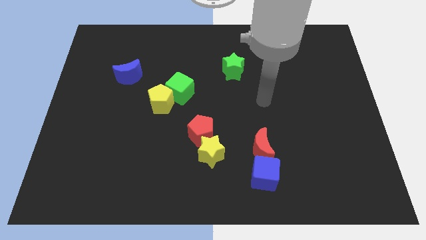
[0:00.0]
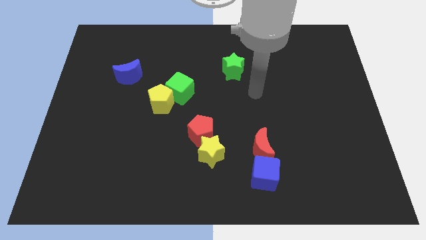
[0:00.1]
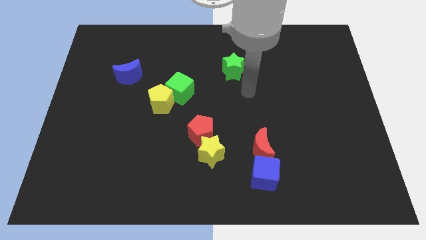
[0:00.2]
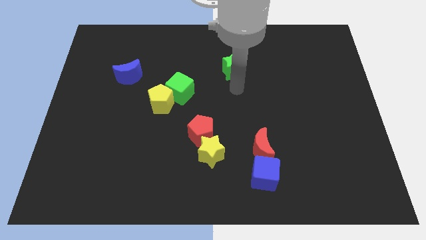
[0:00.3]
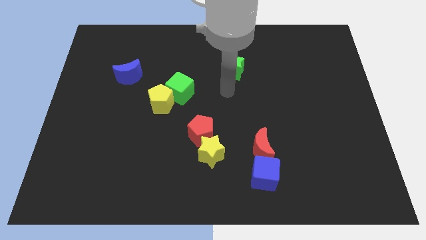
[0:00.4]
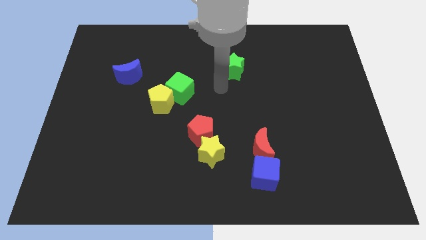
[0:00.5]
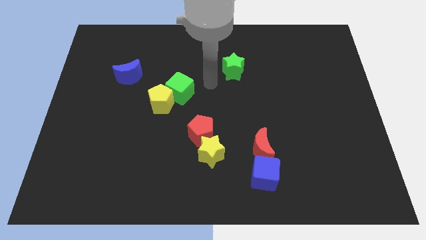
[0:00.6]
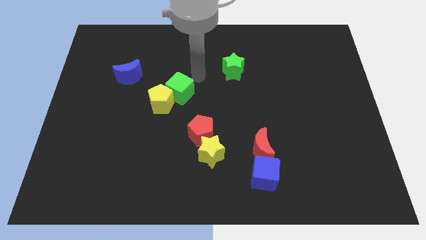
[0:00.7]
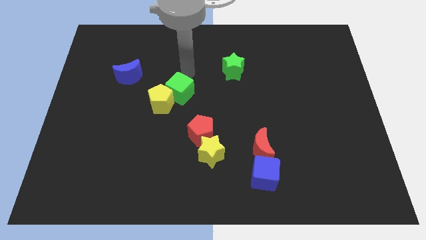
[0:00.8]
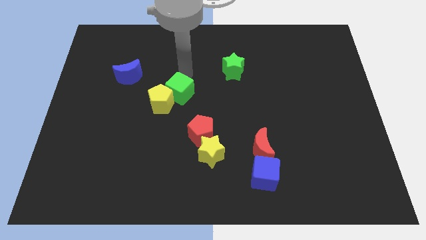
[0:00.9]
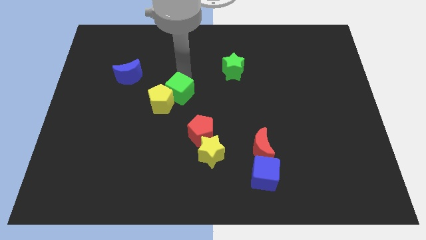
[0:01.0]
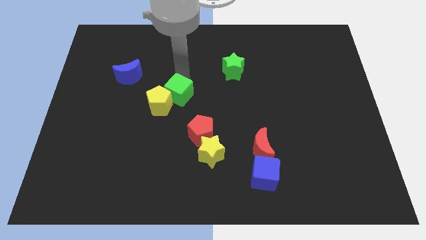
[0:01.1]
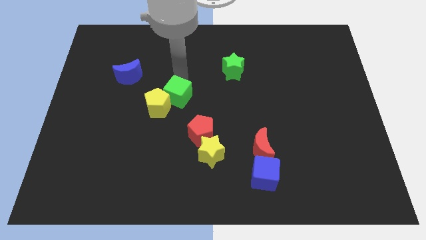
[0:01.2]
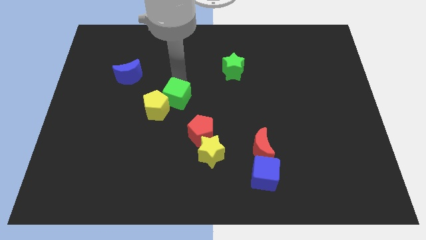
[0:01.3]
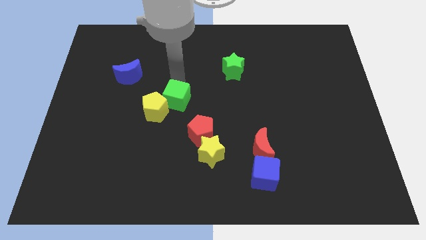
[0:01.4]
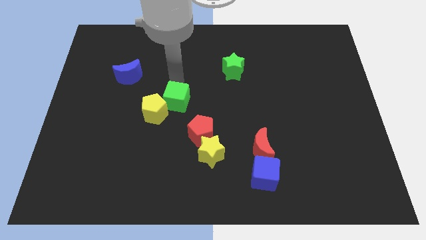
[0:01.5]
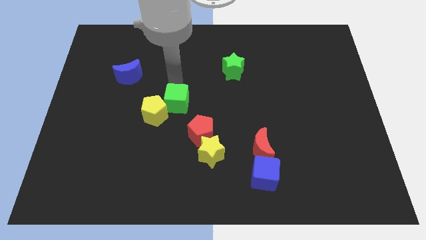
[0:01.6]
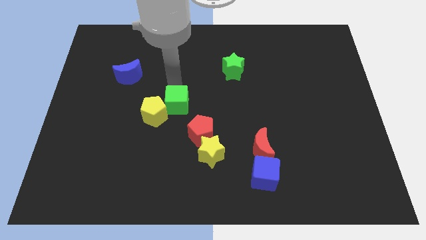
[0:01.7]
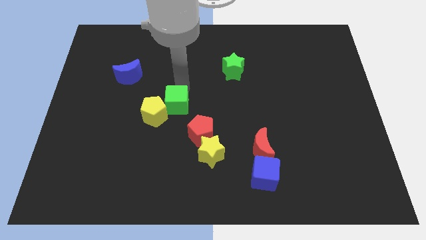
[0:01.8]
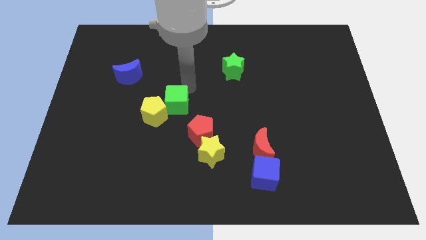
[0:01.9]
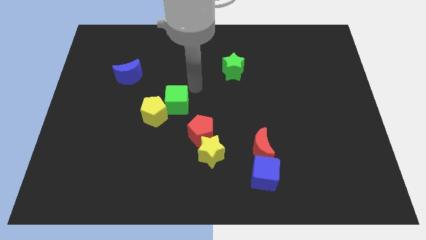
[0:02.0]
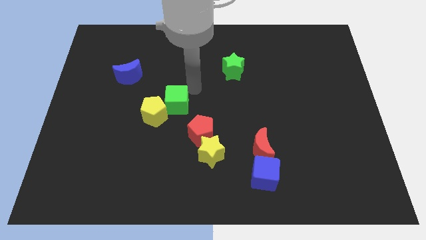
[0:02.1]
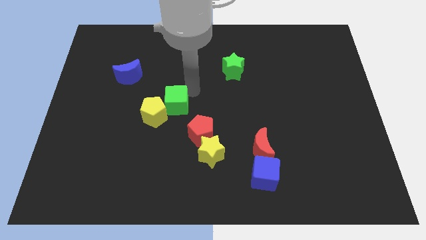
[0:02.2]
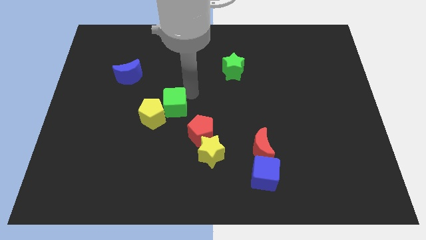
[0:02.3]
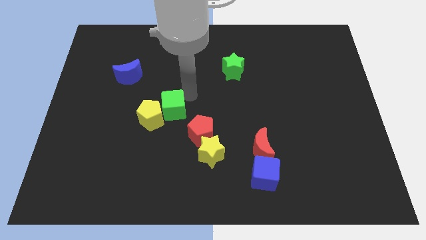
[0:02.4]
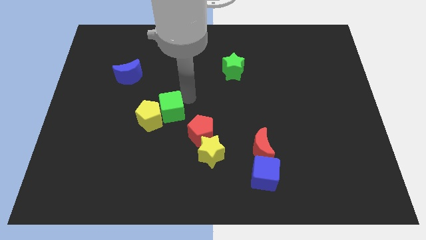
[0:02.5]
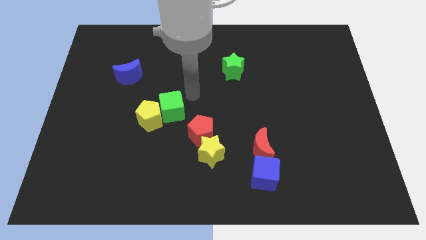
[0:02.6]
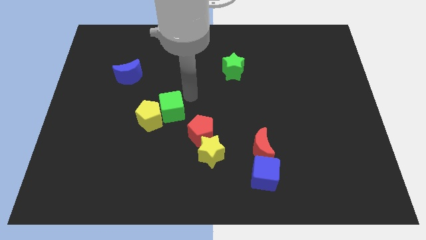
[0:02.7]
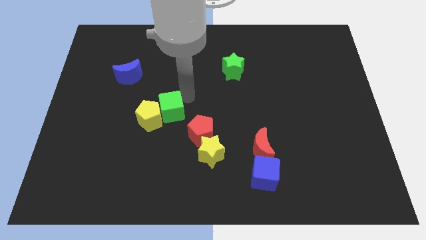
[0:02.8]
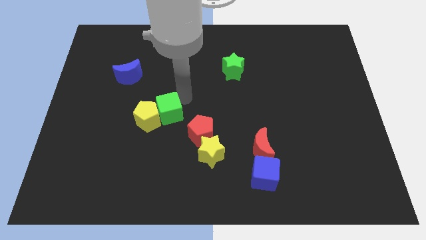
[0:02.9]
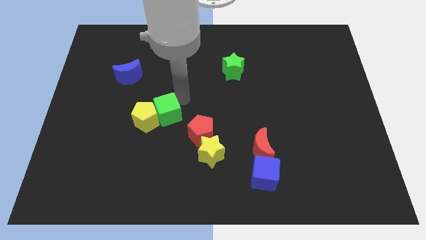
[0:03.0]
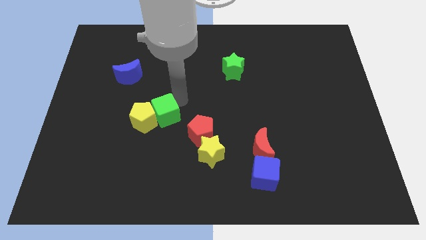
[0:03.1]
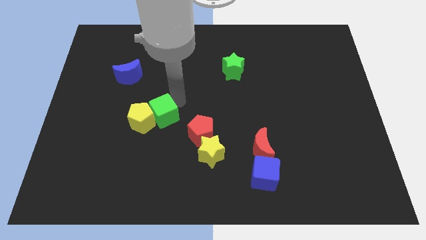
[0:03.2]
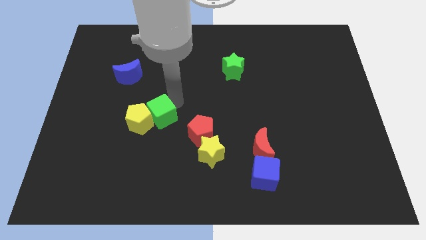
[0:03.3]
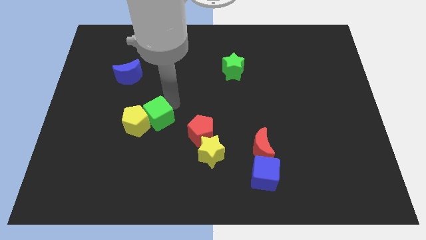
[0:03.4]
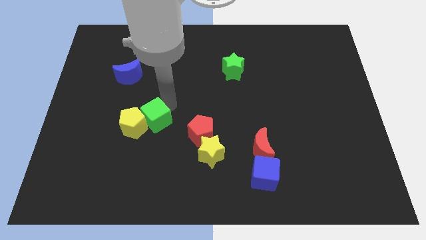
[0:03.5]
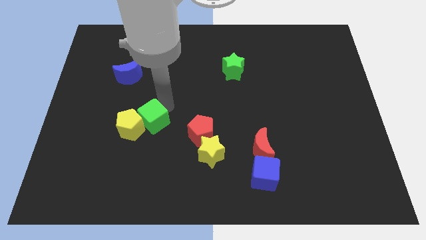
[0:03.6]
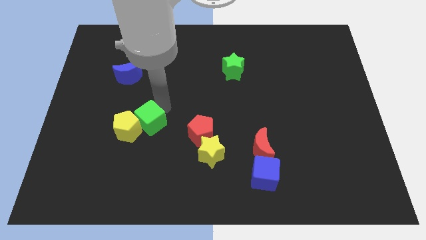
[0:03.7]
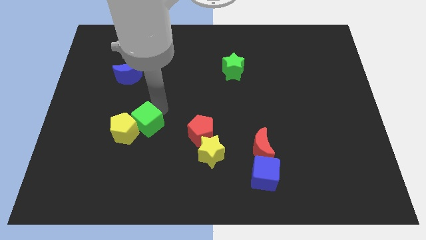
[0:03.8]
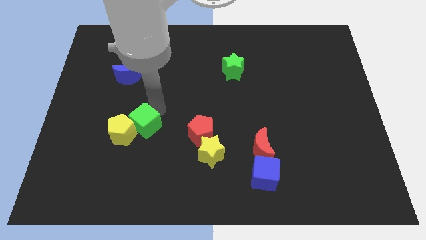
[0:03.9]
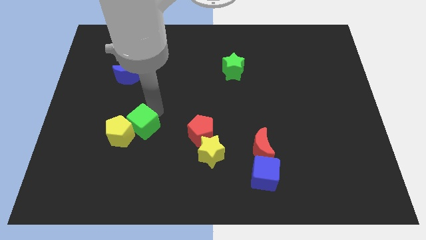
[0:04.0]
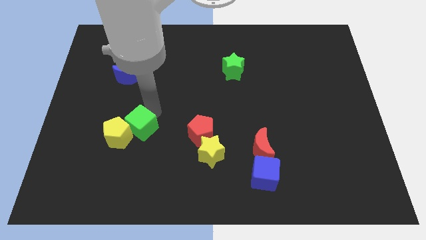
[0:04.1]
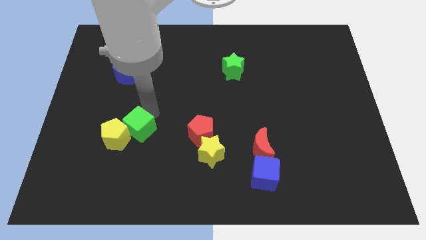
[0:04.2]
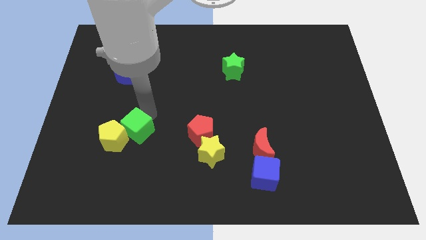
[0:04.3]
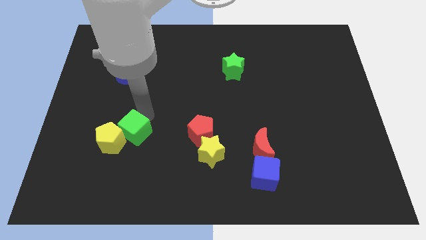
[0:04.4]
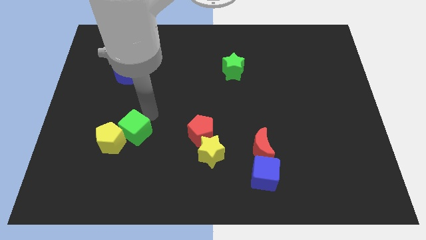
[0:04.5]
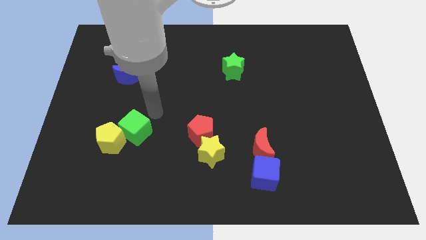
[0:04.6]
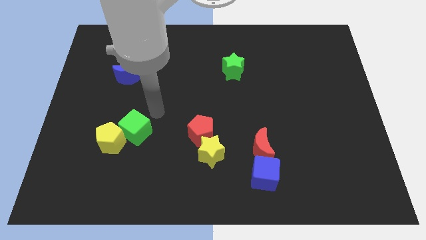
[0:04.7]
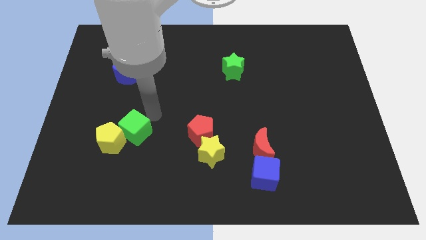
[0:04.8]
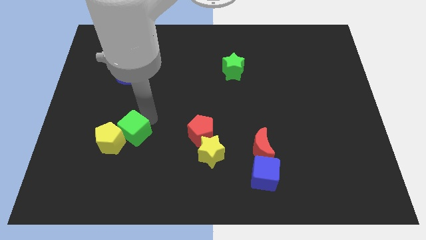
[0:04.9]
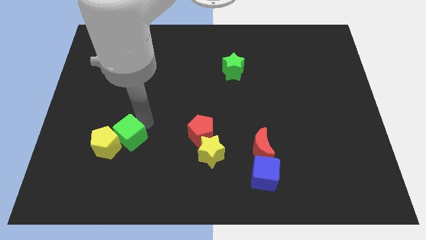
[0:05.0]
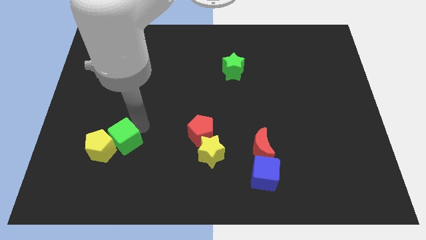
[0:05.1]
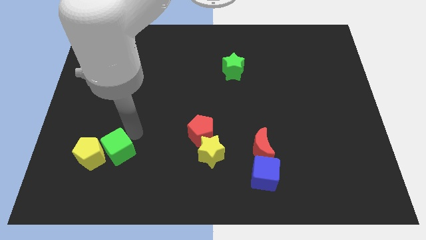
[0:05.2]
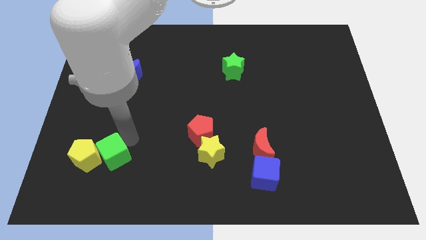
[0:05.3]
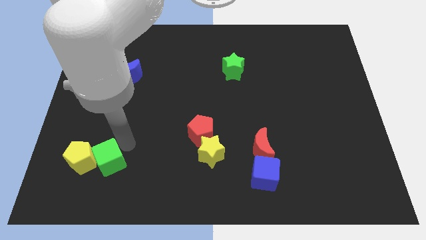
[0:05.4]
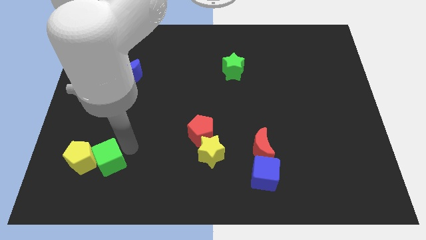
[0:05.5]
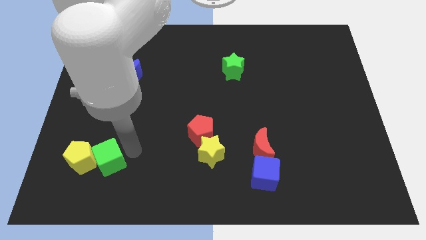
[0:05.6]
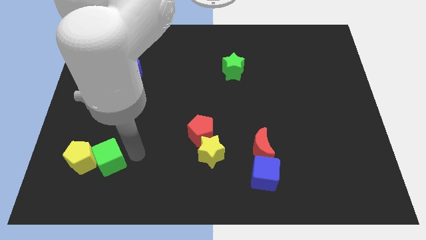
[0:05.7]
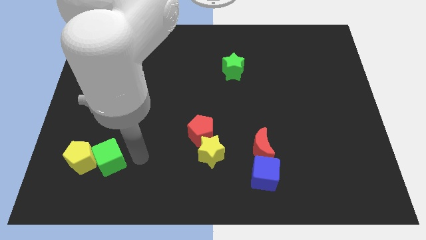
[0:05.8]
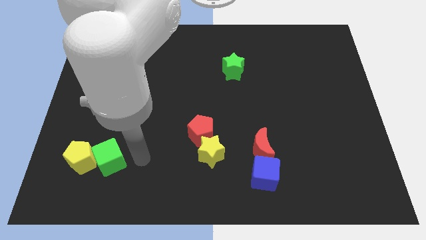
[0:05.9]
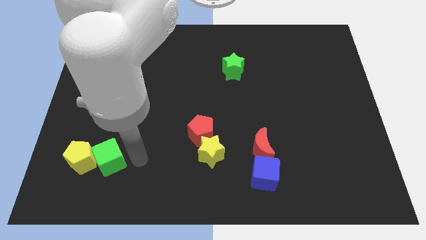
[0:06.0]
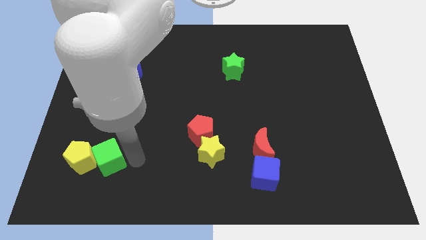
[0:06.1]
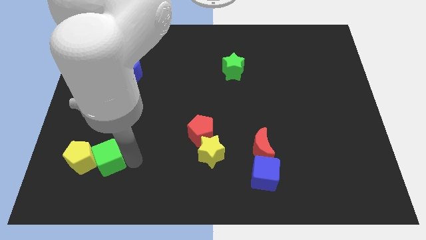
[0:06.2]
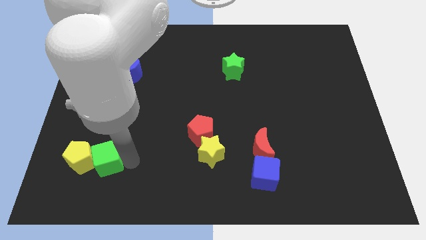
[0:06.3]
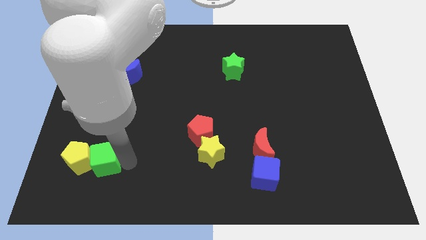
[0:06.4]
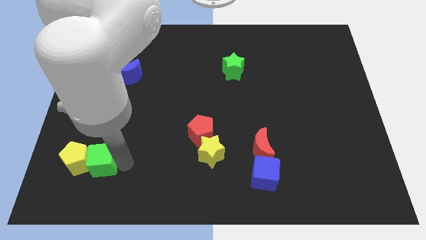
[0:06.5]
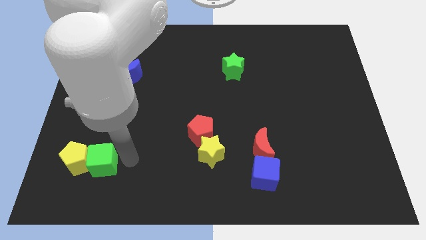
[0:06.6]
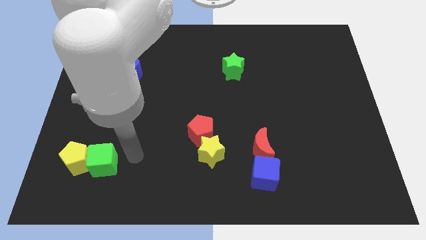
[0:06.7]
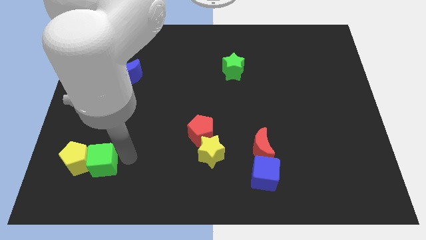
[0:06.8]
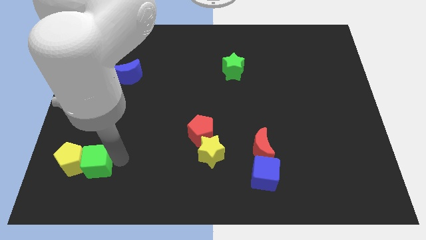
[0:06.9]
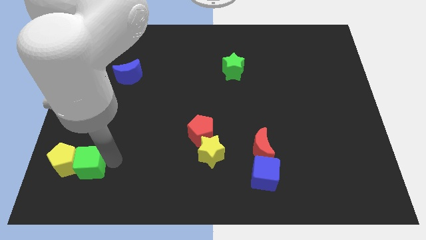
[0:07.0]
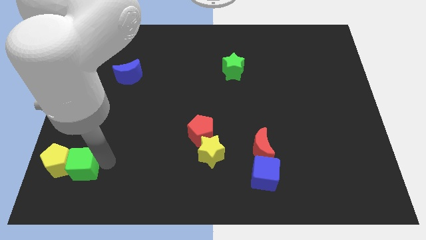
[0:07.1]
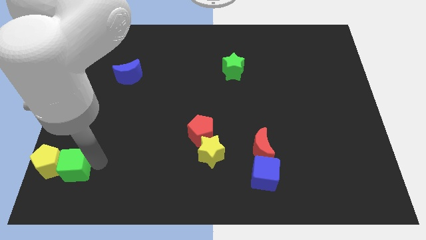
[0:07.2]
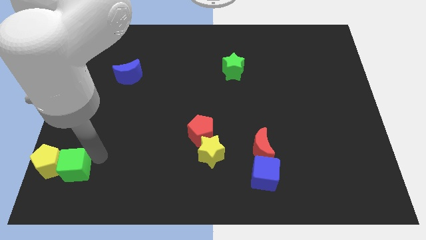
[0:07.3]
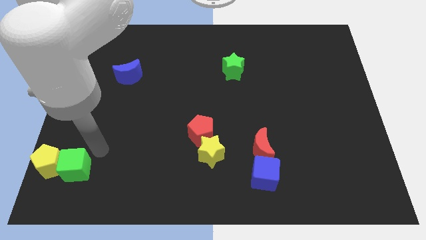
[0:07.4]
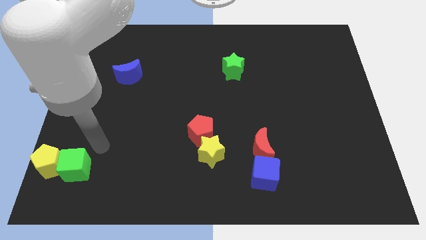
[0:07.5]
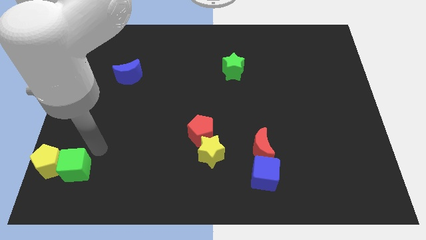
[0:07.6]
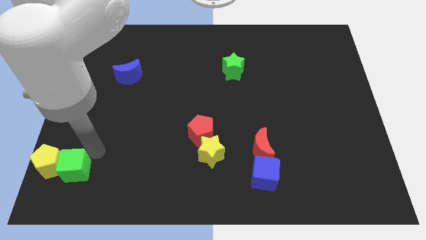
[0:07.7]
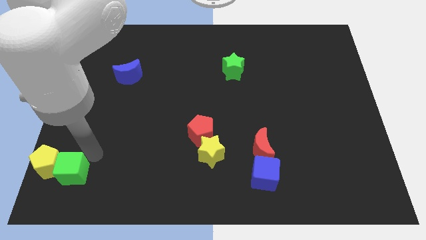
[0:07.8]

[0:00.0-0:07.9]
put the green cube to the bottom left
